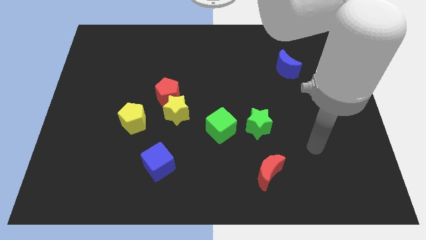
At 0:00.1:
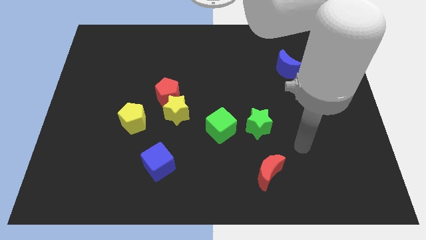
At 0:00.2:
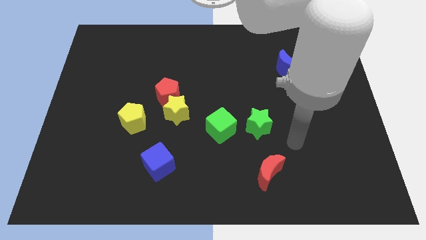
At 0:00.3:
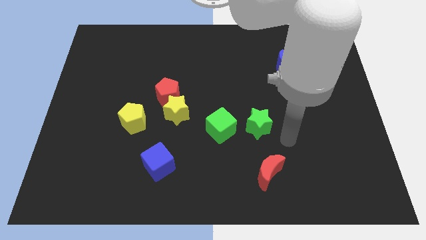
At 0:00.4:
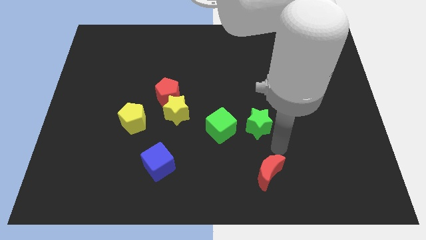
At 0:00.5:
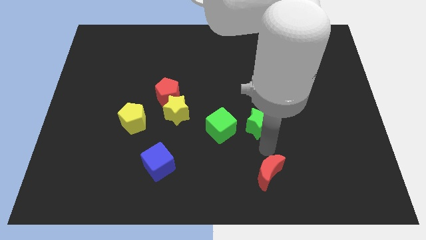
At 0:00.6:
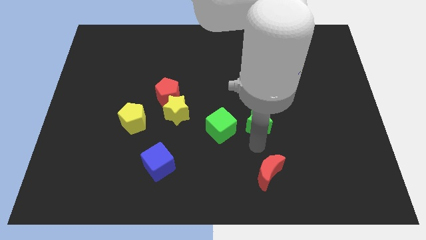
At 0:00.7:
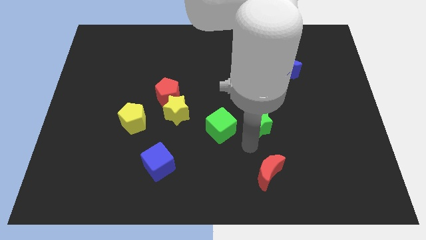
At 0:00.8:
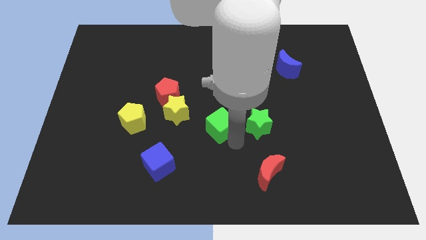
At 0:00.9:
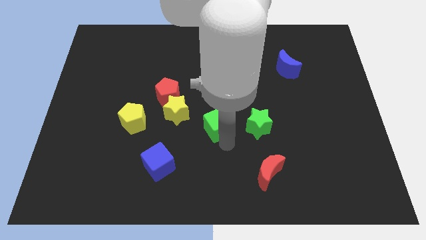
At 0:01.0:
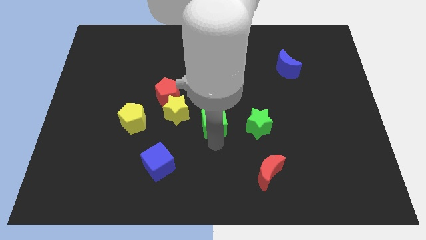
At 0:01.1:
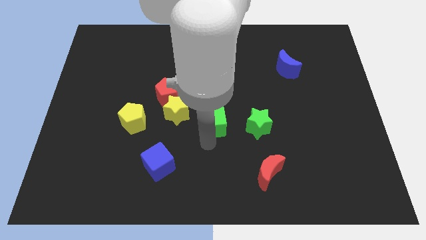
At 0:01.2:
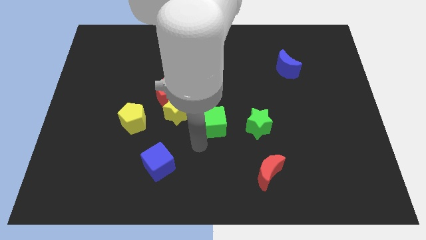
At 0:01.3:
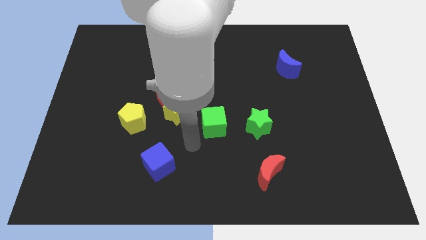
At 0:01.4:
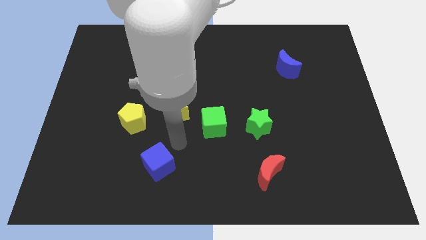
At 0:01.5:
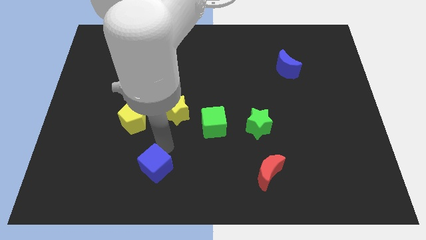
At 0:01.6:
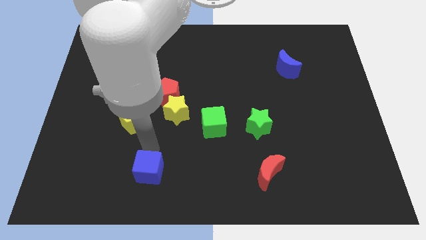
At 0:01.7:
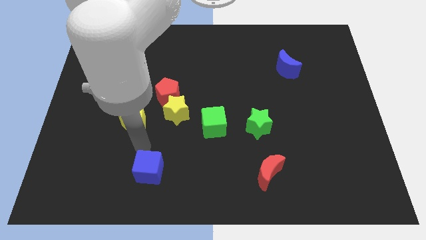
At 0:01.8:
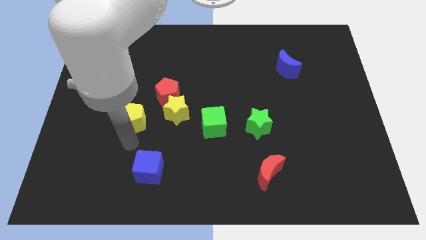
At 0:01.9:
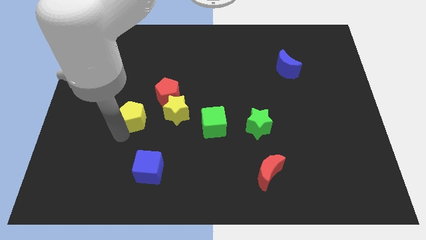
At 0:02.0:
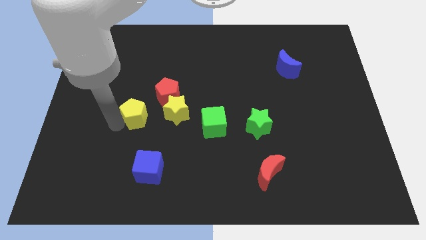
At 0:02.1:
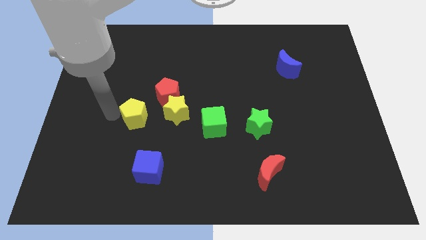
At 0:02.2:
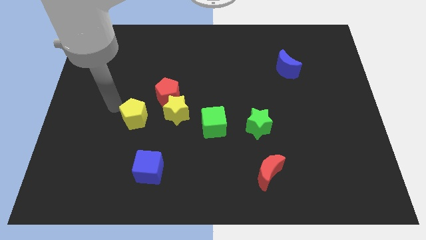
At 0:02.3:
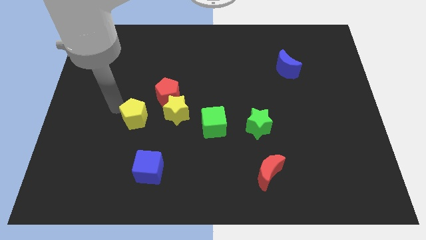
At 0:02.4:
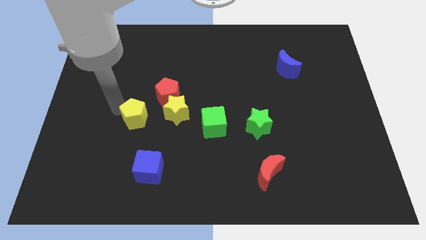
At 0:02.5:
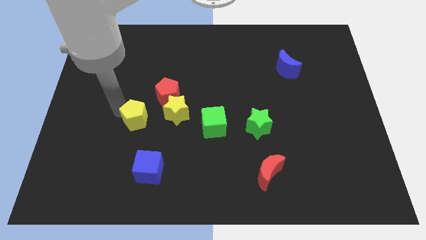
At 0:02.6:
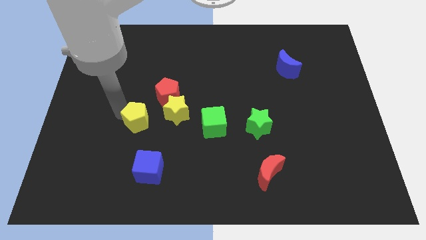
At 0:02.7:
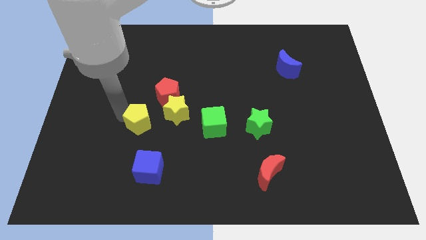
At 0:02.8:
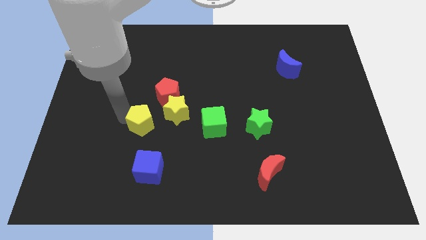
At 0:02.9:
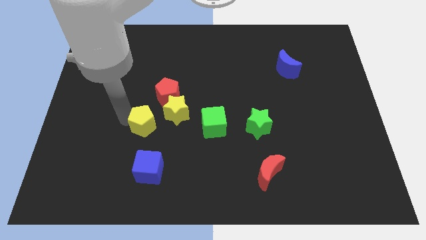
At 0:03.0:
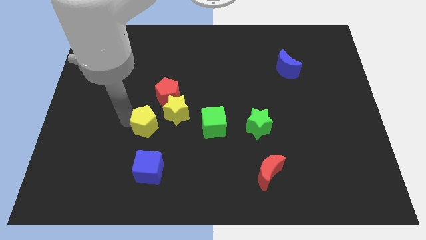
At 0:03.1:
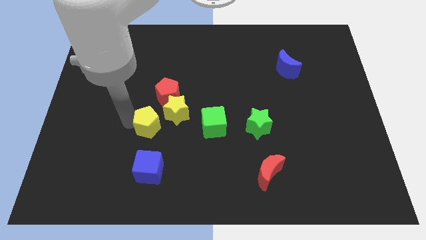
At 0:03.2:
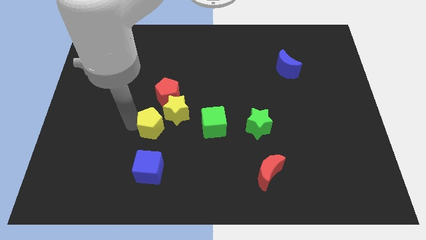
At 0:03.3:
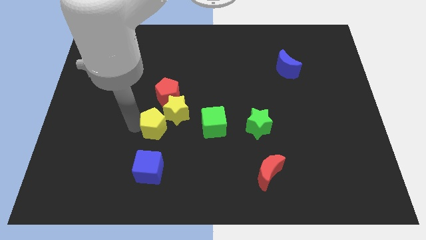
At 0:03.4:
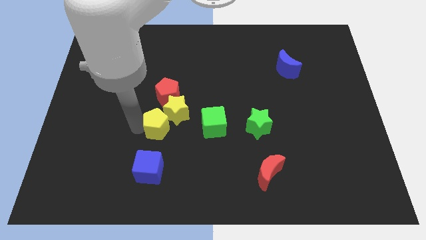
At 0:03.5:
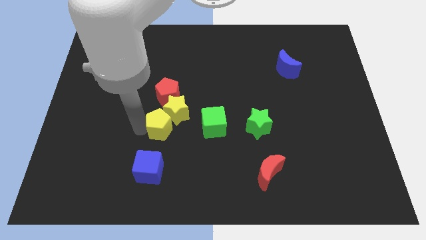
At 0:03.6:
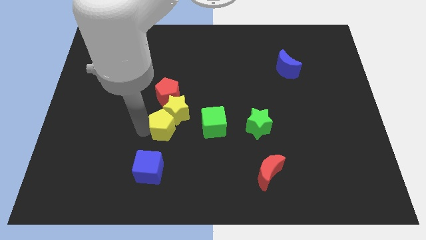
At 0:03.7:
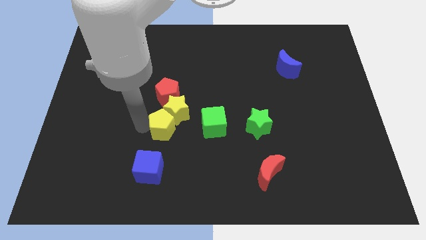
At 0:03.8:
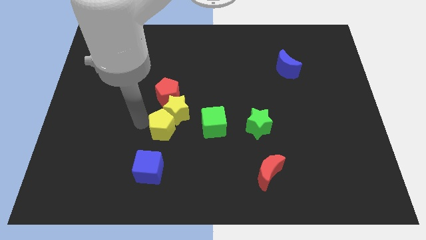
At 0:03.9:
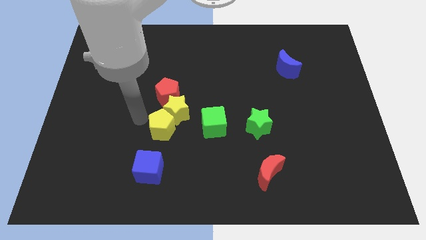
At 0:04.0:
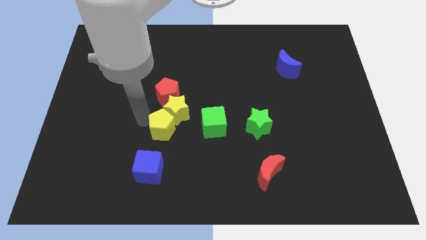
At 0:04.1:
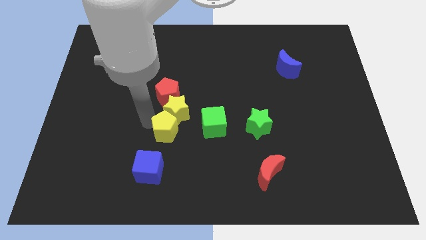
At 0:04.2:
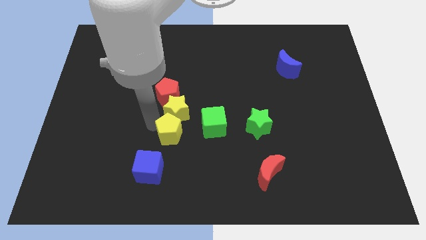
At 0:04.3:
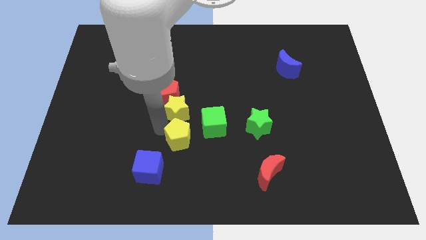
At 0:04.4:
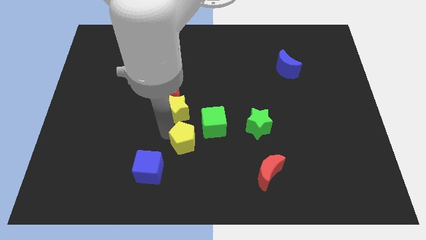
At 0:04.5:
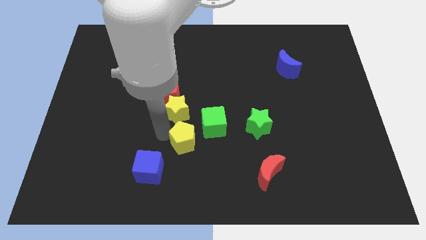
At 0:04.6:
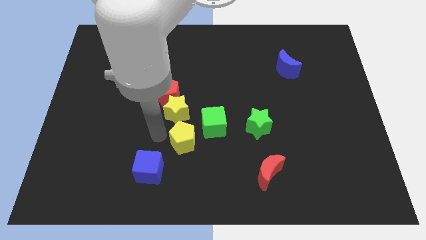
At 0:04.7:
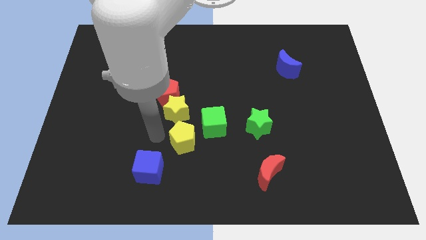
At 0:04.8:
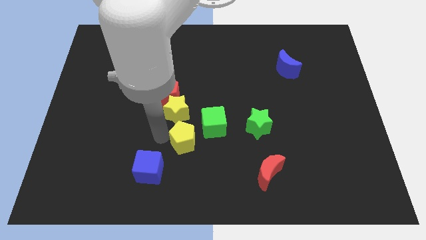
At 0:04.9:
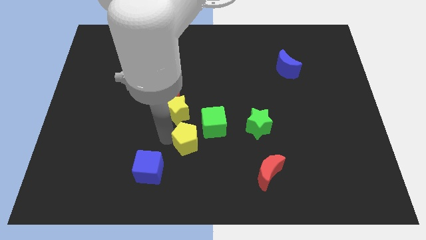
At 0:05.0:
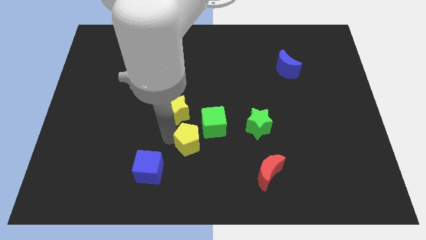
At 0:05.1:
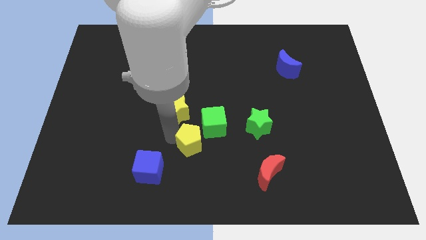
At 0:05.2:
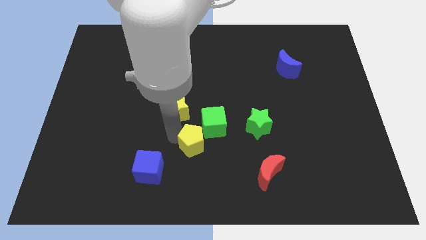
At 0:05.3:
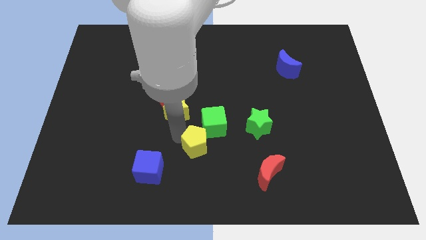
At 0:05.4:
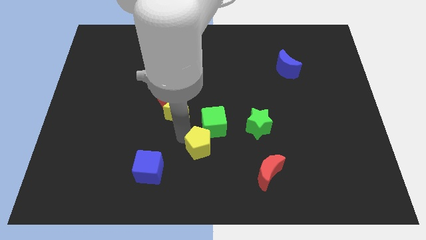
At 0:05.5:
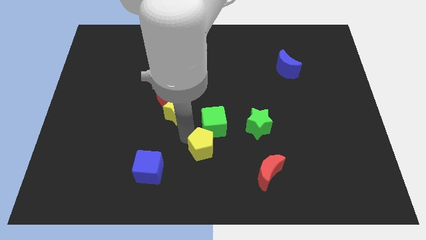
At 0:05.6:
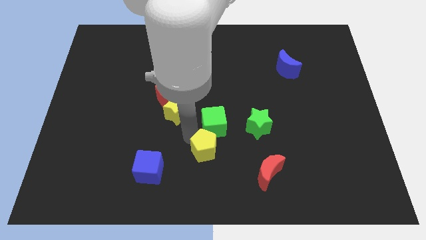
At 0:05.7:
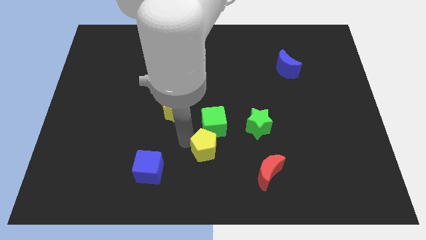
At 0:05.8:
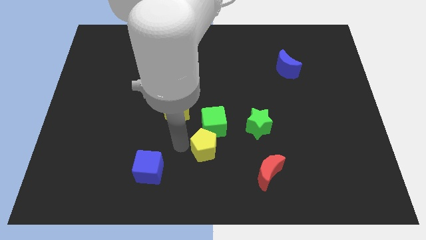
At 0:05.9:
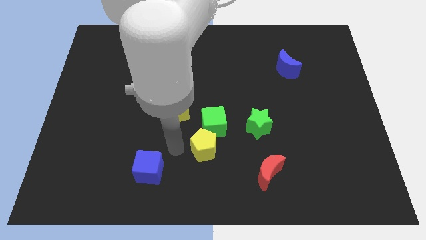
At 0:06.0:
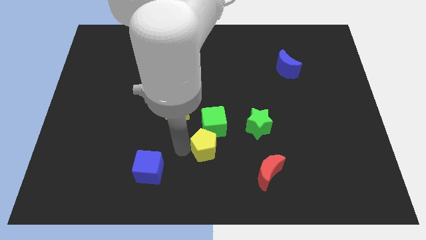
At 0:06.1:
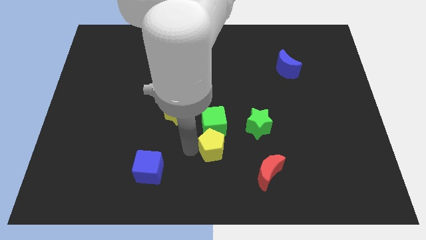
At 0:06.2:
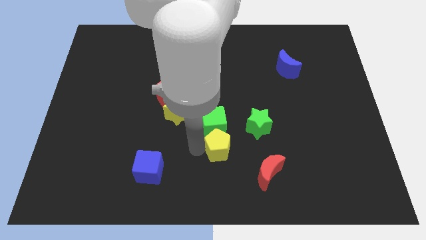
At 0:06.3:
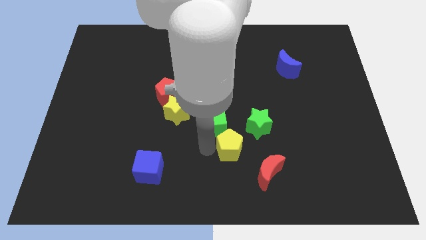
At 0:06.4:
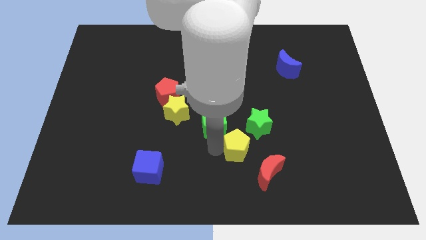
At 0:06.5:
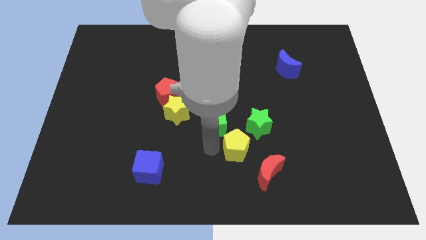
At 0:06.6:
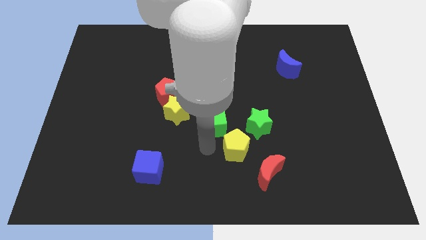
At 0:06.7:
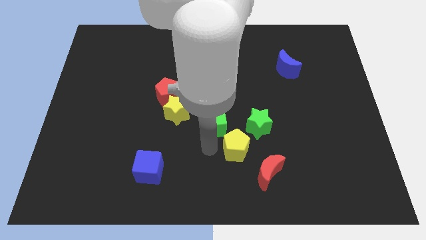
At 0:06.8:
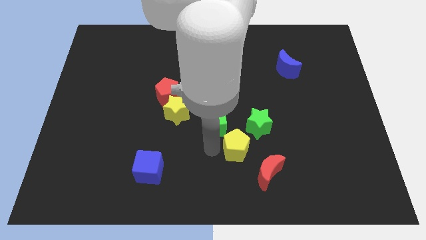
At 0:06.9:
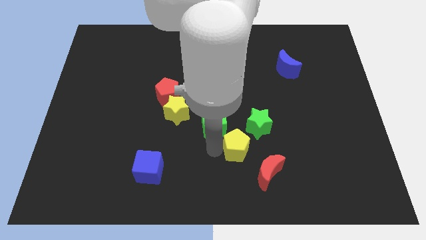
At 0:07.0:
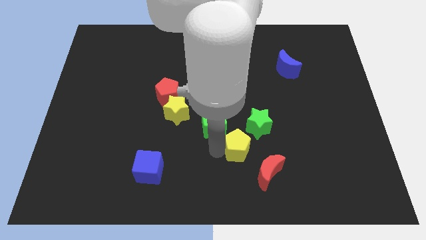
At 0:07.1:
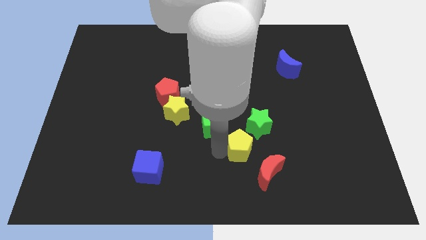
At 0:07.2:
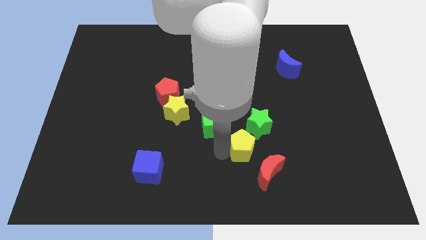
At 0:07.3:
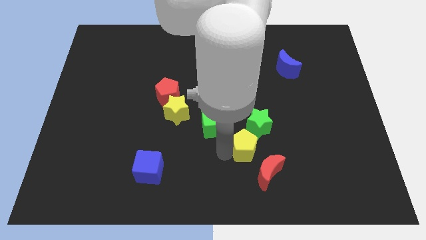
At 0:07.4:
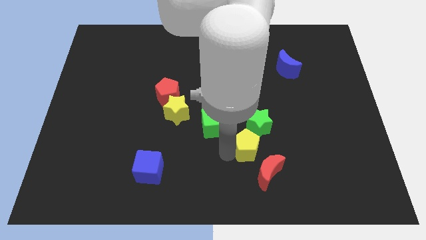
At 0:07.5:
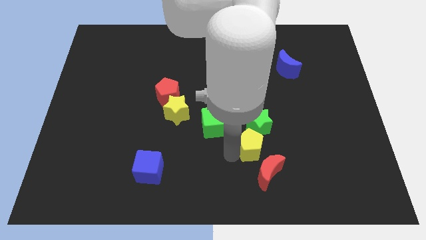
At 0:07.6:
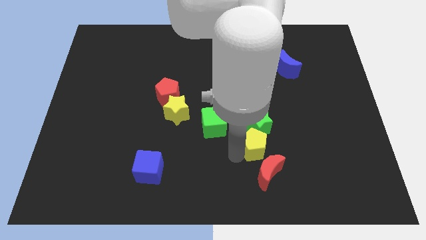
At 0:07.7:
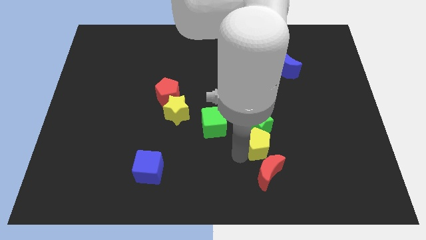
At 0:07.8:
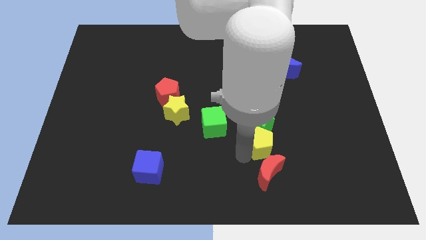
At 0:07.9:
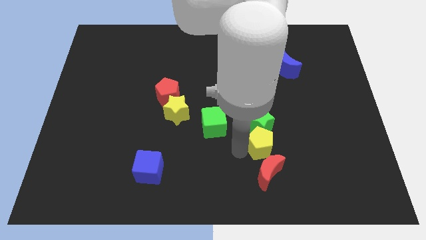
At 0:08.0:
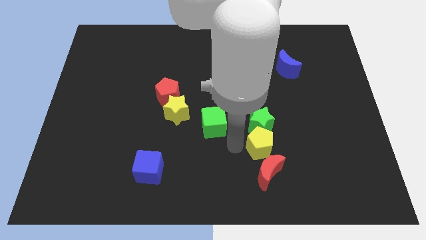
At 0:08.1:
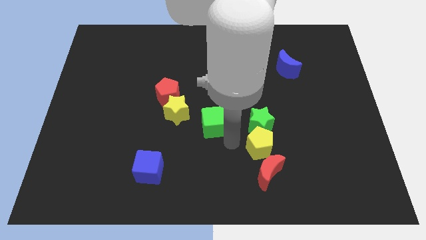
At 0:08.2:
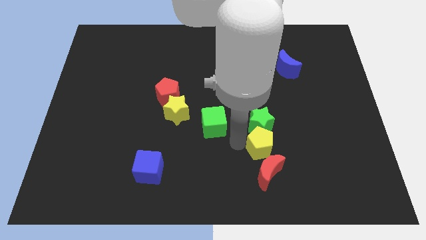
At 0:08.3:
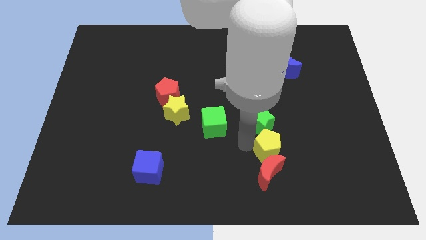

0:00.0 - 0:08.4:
push the yellow pentagon diagonally up and to the right of the red moon
